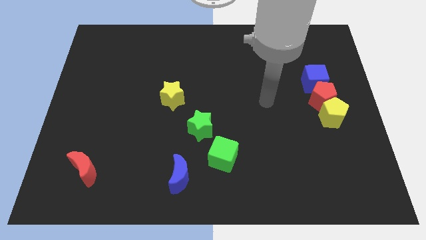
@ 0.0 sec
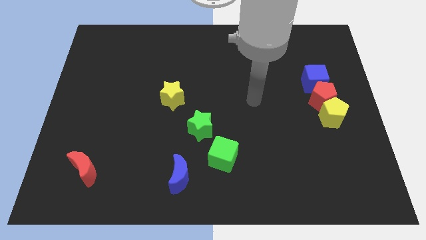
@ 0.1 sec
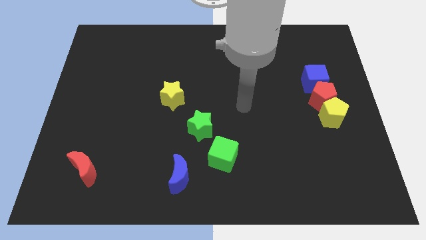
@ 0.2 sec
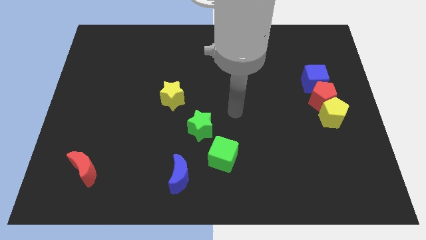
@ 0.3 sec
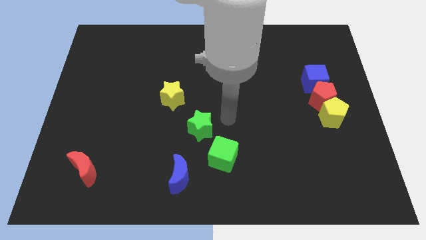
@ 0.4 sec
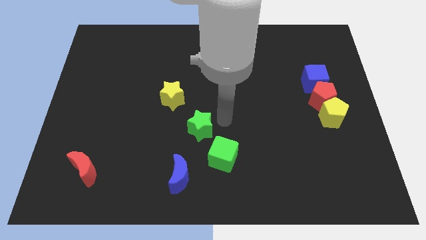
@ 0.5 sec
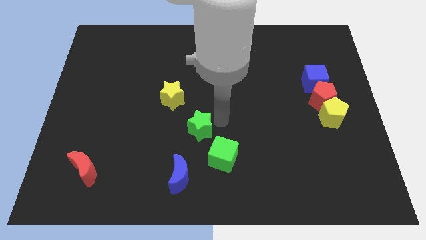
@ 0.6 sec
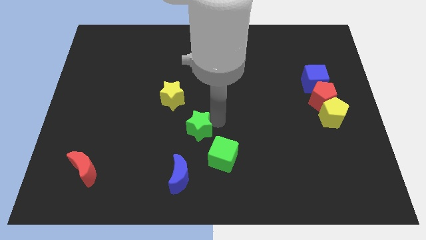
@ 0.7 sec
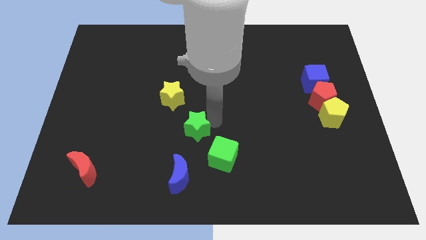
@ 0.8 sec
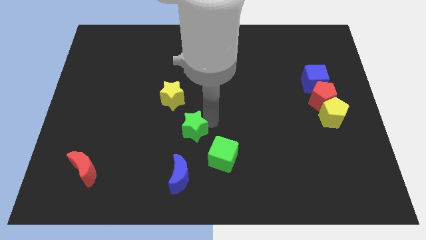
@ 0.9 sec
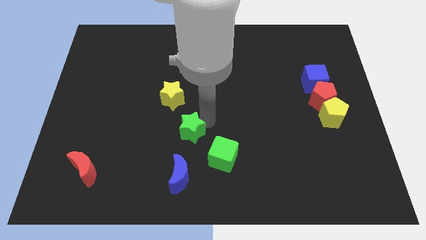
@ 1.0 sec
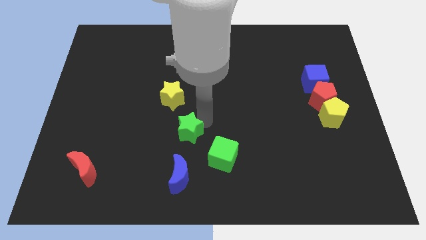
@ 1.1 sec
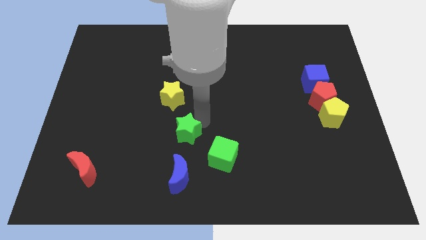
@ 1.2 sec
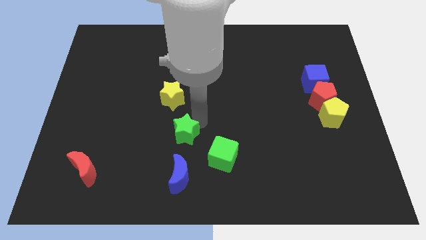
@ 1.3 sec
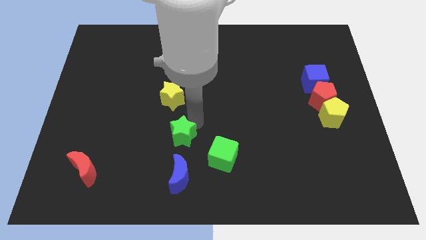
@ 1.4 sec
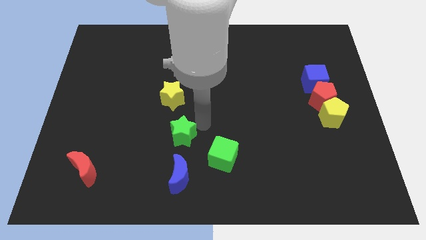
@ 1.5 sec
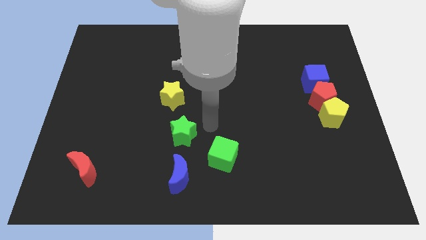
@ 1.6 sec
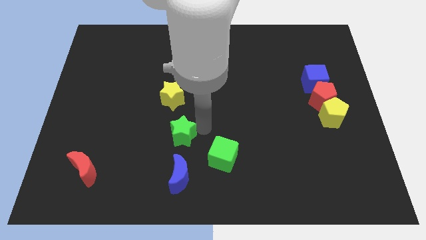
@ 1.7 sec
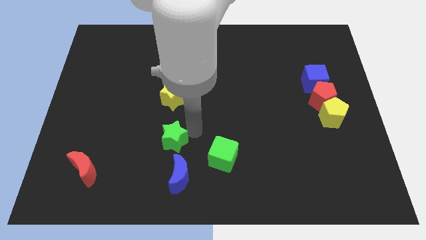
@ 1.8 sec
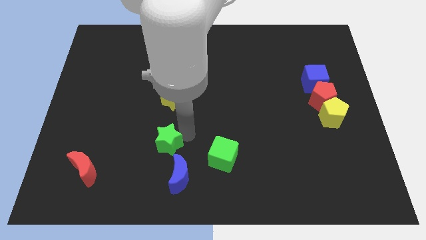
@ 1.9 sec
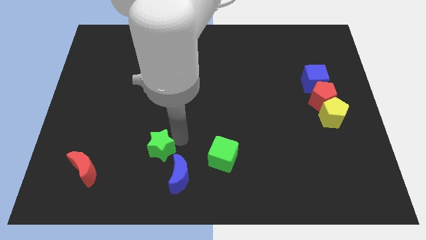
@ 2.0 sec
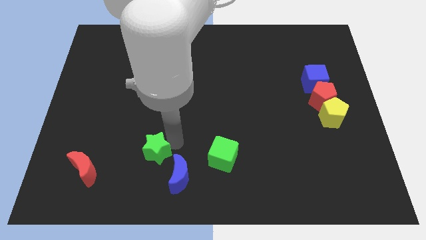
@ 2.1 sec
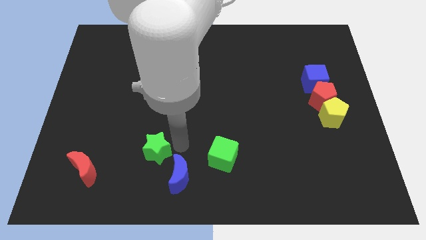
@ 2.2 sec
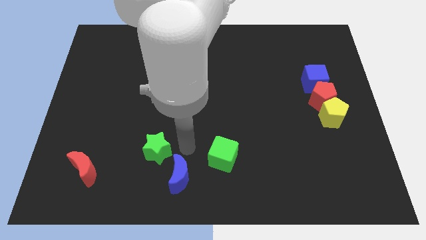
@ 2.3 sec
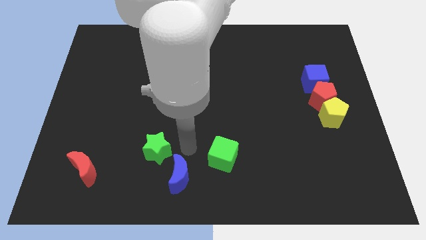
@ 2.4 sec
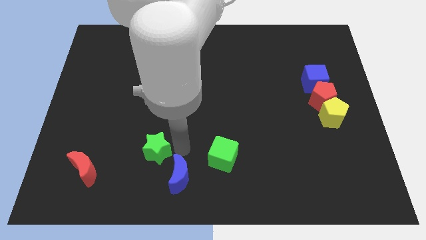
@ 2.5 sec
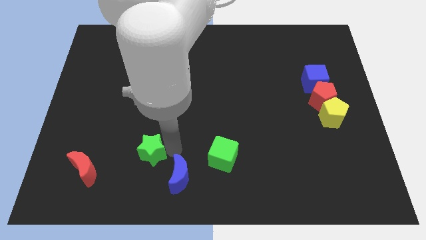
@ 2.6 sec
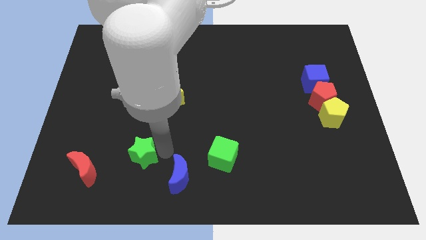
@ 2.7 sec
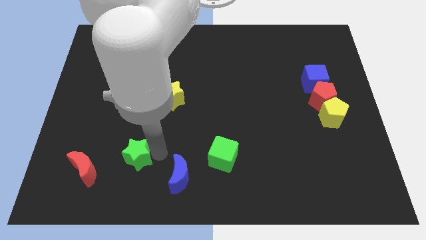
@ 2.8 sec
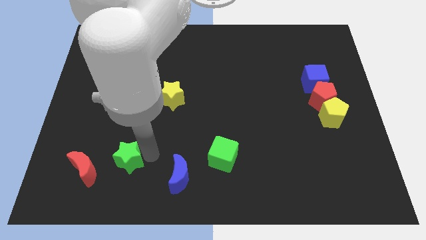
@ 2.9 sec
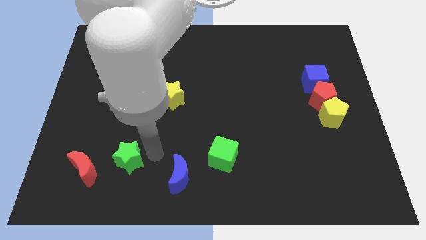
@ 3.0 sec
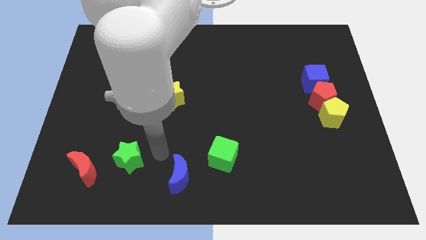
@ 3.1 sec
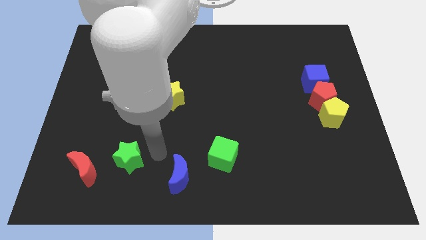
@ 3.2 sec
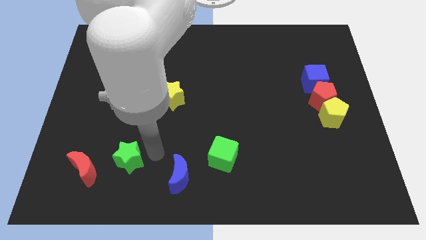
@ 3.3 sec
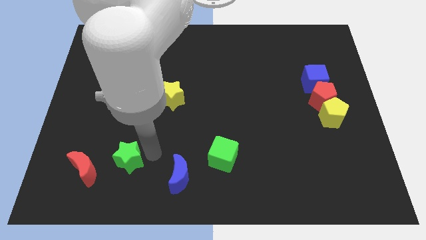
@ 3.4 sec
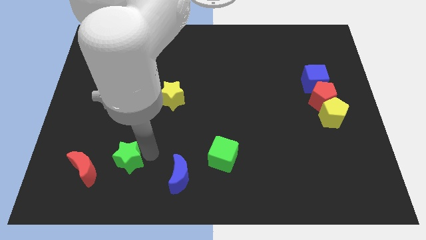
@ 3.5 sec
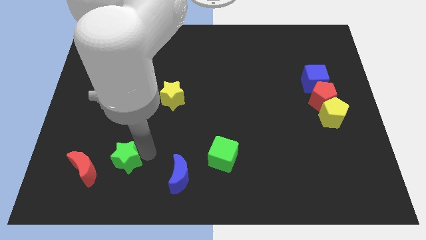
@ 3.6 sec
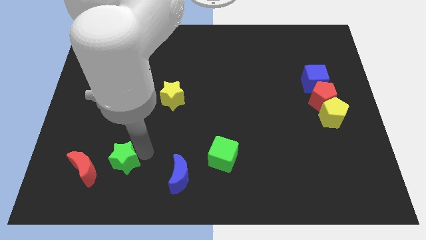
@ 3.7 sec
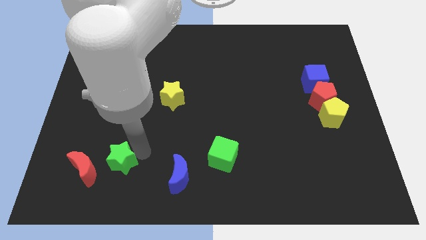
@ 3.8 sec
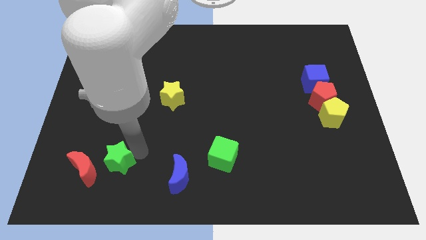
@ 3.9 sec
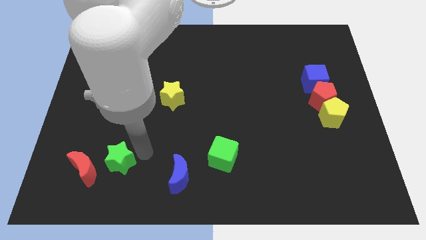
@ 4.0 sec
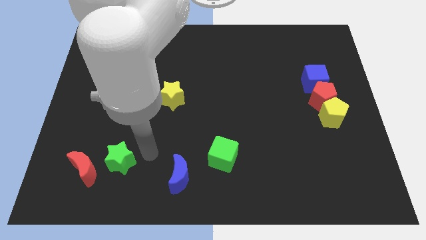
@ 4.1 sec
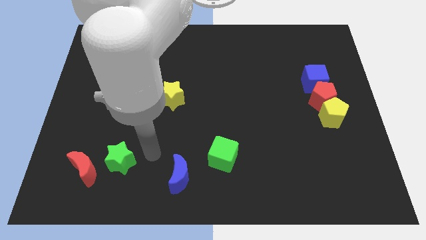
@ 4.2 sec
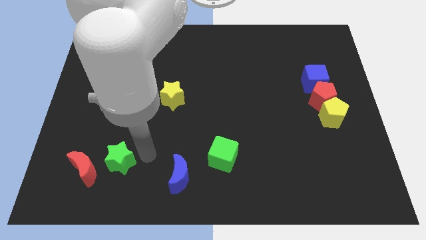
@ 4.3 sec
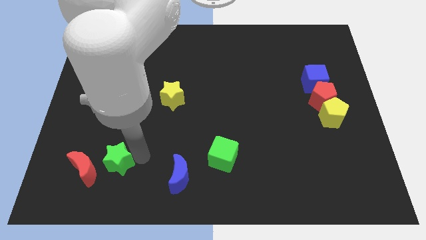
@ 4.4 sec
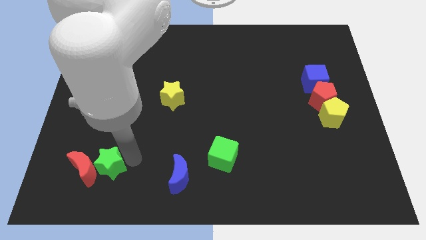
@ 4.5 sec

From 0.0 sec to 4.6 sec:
push the green star towards the red moon

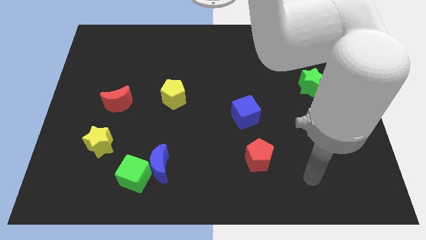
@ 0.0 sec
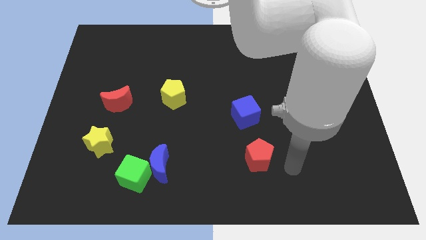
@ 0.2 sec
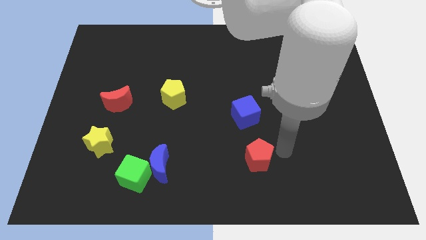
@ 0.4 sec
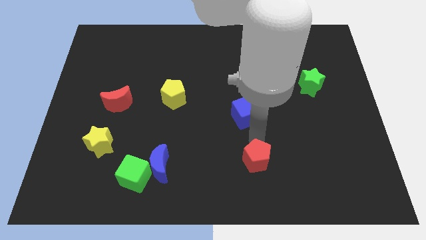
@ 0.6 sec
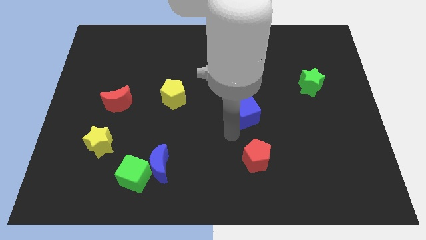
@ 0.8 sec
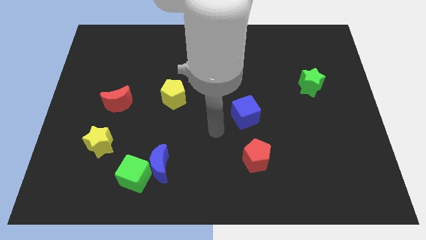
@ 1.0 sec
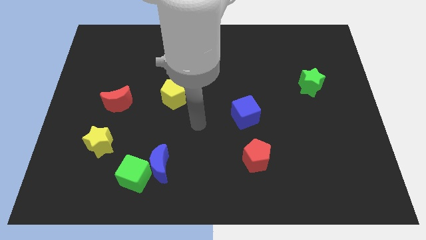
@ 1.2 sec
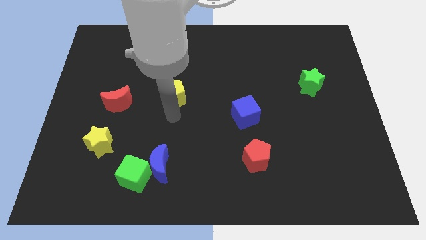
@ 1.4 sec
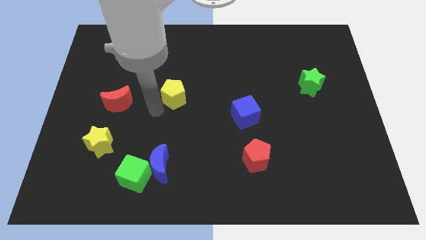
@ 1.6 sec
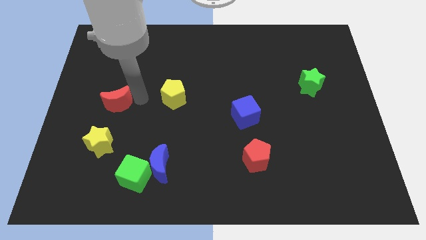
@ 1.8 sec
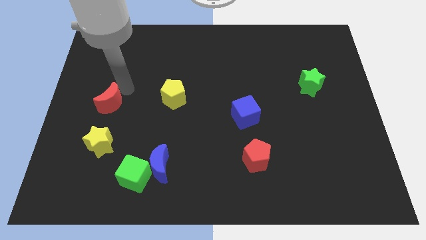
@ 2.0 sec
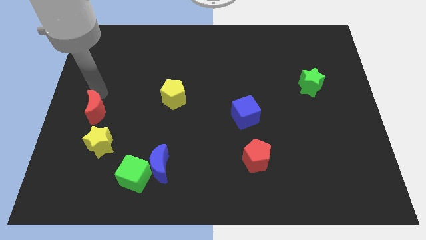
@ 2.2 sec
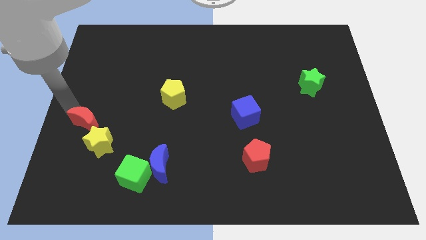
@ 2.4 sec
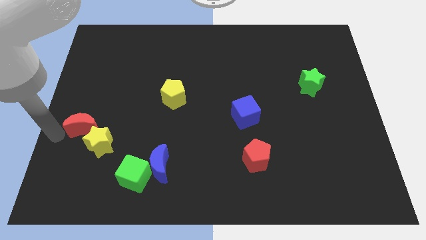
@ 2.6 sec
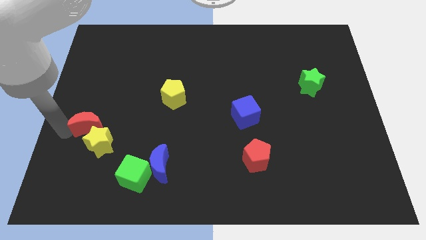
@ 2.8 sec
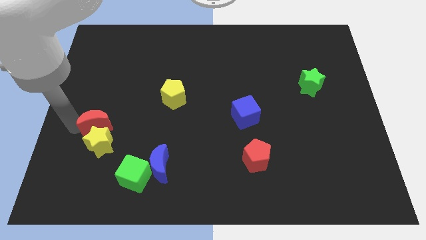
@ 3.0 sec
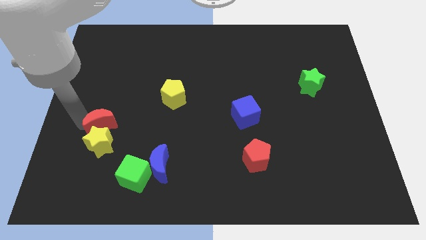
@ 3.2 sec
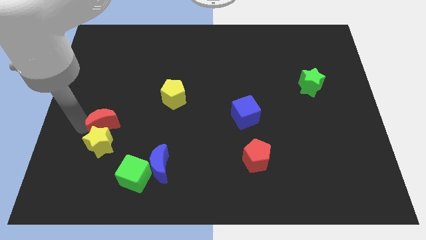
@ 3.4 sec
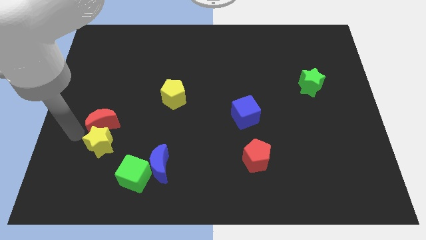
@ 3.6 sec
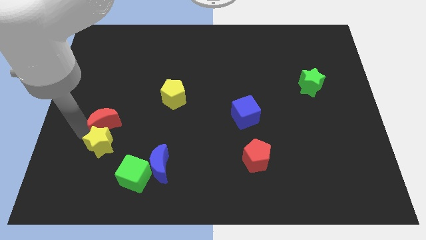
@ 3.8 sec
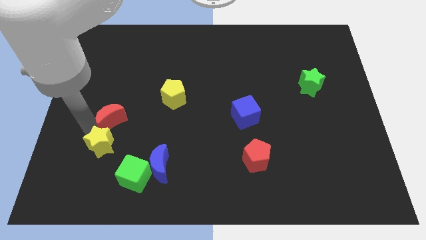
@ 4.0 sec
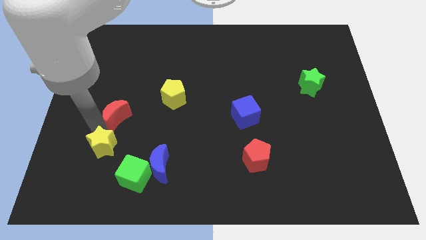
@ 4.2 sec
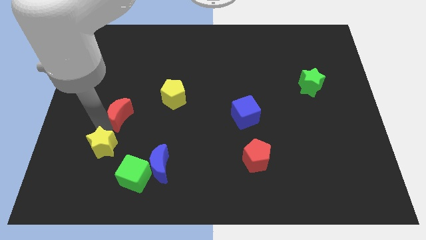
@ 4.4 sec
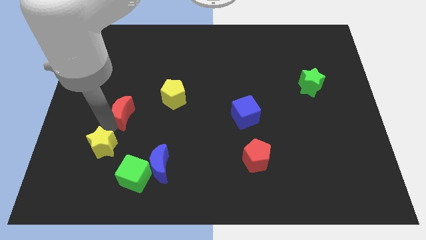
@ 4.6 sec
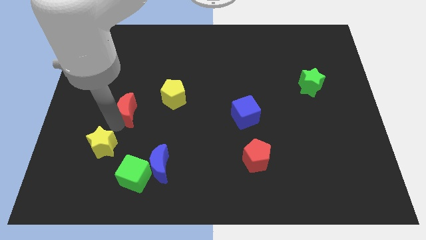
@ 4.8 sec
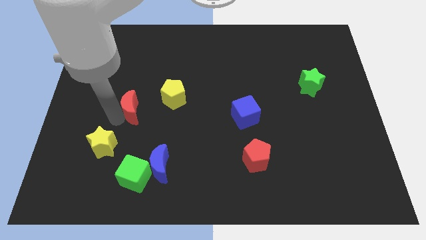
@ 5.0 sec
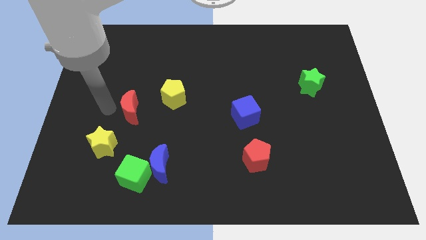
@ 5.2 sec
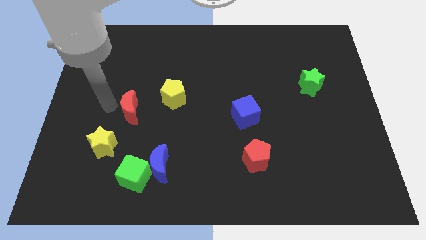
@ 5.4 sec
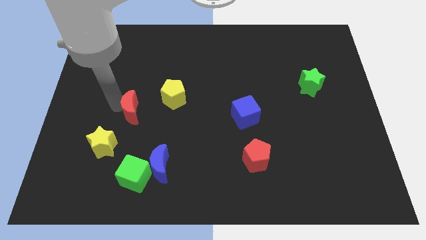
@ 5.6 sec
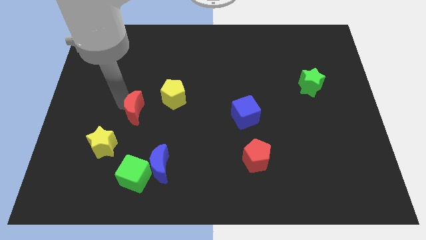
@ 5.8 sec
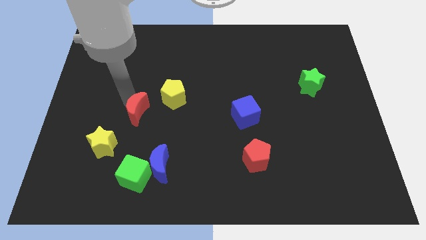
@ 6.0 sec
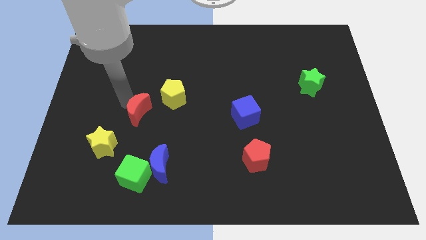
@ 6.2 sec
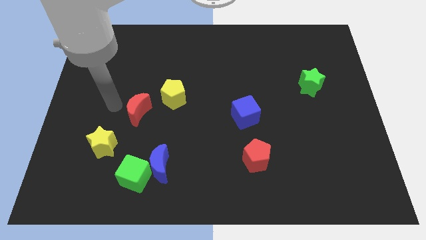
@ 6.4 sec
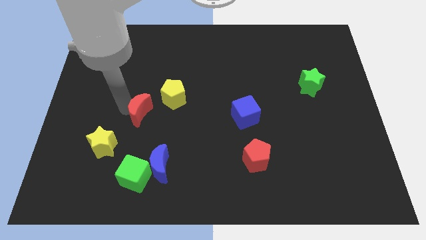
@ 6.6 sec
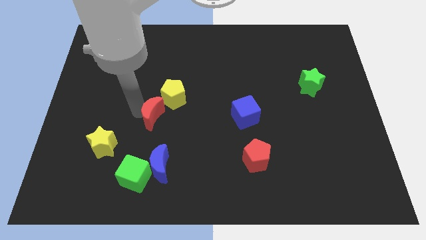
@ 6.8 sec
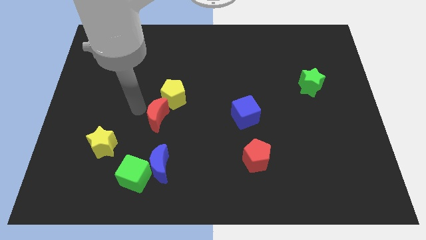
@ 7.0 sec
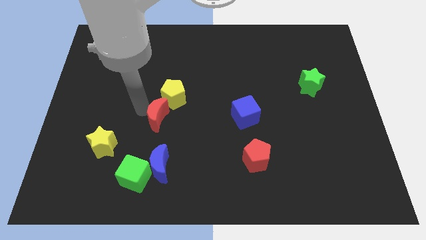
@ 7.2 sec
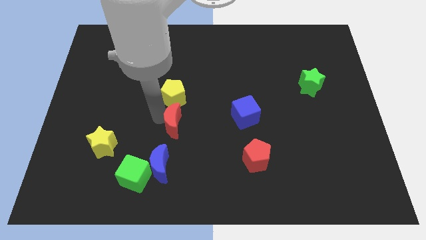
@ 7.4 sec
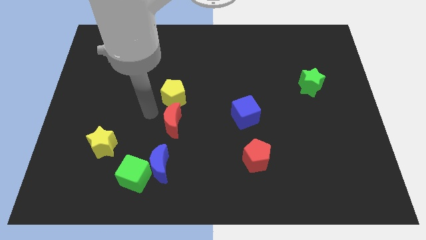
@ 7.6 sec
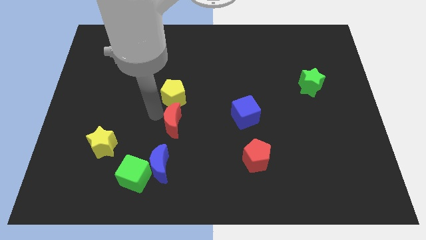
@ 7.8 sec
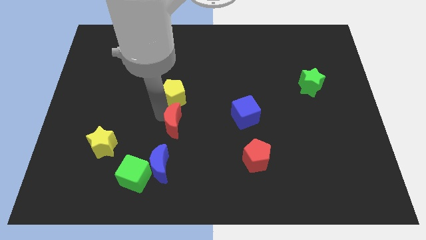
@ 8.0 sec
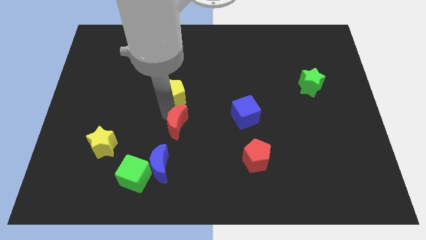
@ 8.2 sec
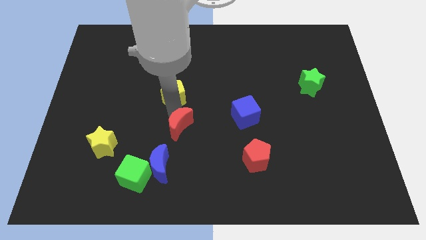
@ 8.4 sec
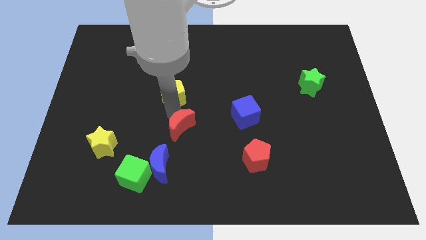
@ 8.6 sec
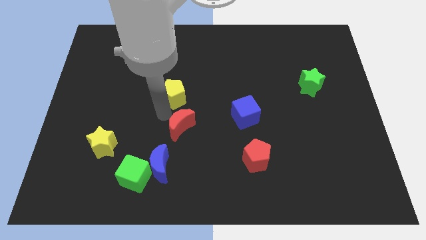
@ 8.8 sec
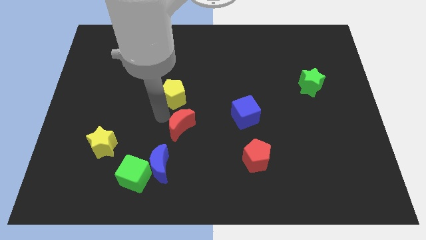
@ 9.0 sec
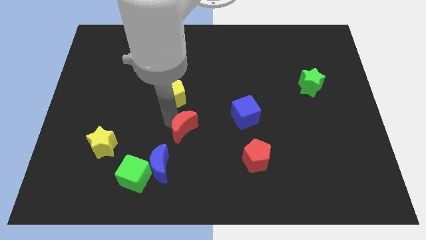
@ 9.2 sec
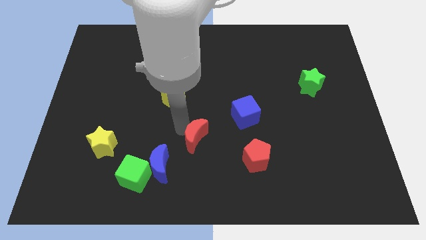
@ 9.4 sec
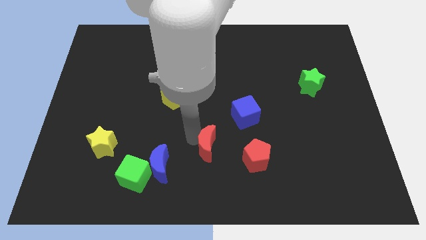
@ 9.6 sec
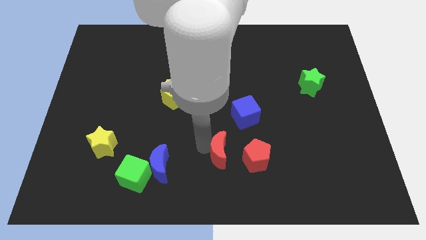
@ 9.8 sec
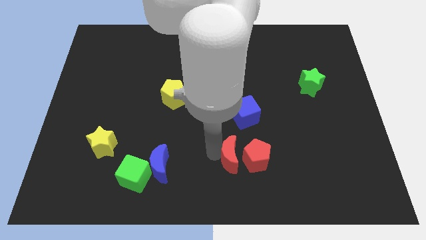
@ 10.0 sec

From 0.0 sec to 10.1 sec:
put the red moon close to the red pentagon
